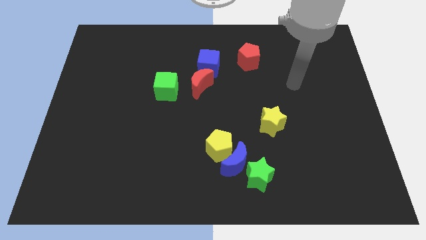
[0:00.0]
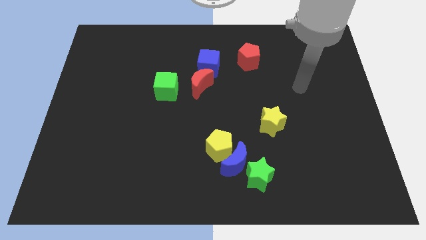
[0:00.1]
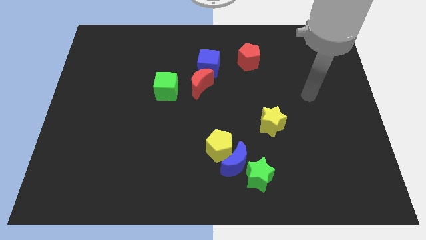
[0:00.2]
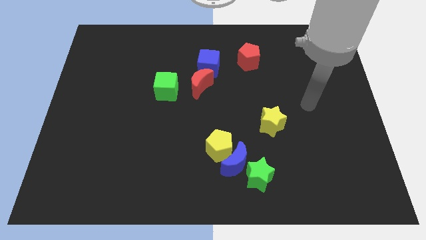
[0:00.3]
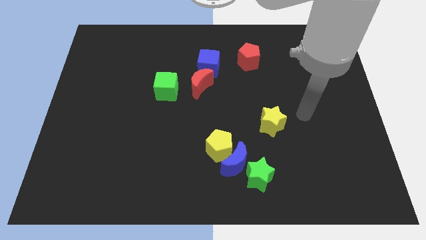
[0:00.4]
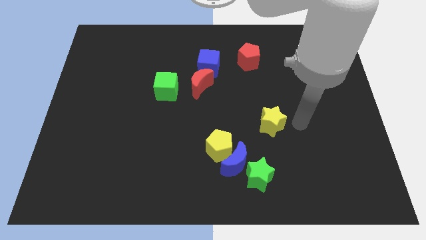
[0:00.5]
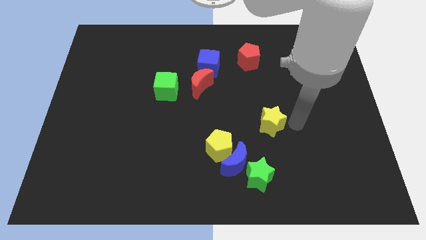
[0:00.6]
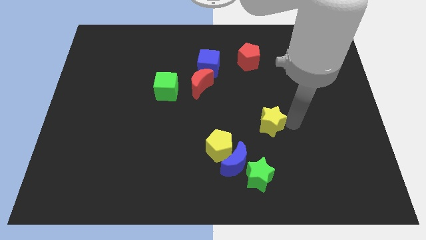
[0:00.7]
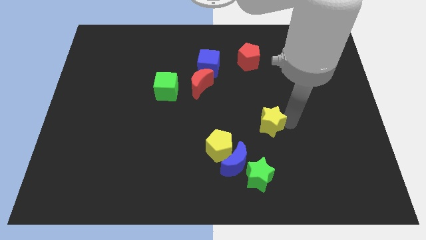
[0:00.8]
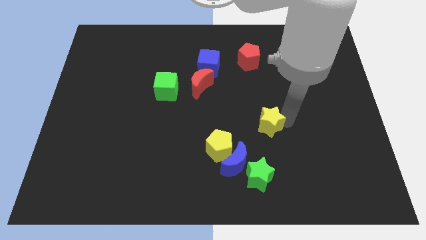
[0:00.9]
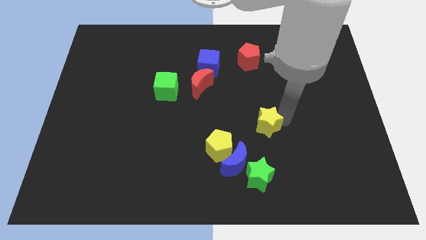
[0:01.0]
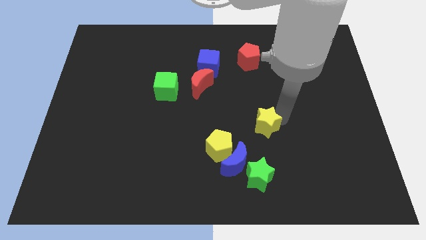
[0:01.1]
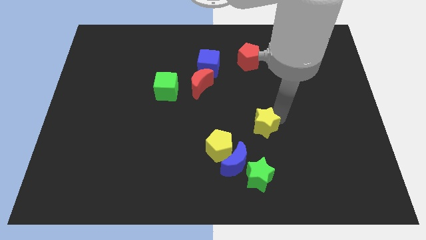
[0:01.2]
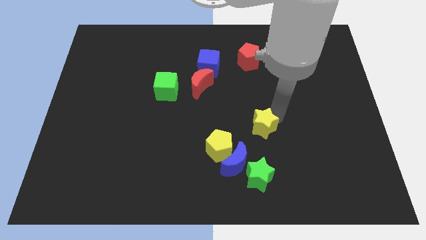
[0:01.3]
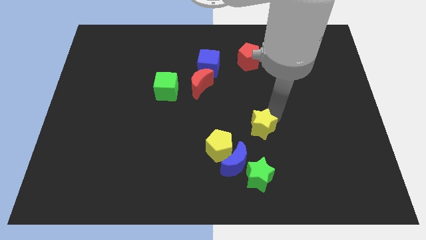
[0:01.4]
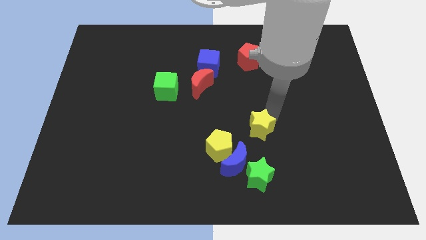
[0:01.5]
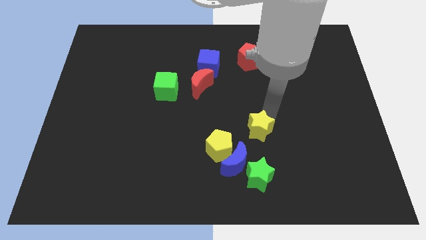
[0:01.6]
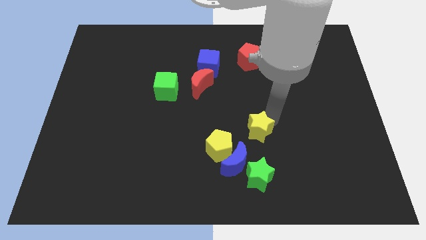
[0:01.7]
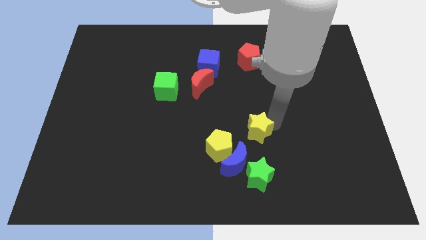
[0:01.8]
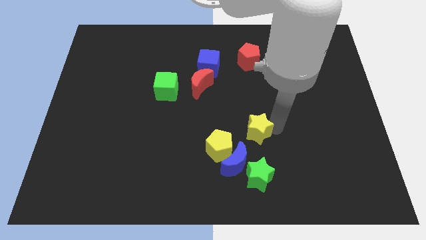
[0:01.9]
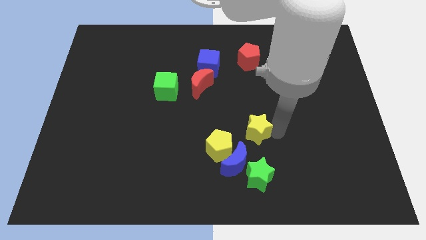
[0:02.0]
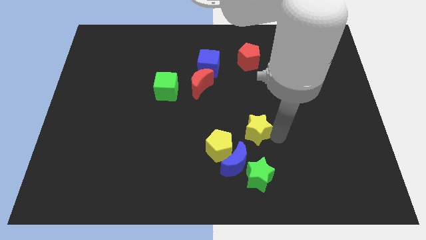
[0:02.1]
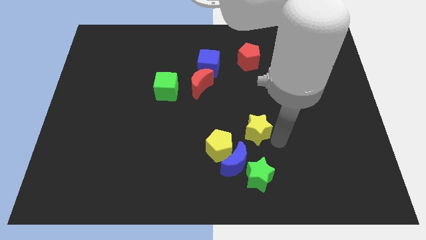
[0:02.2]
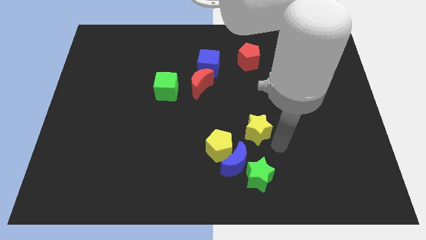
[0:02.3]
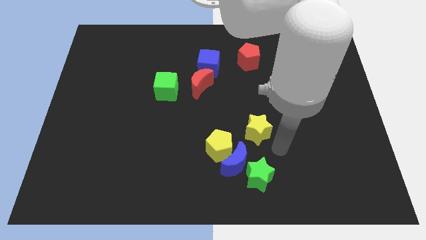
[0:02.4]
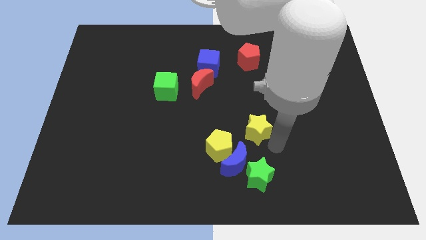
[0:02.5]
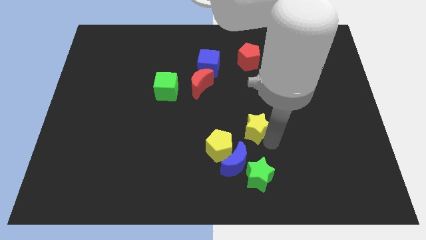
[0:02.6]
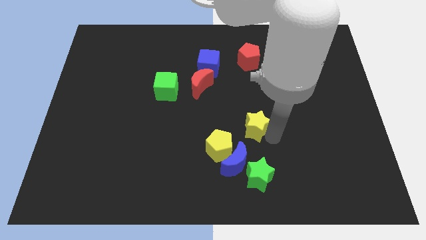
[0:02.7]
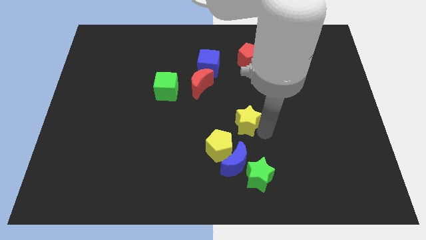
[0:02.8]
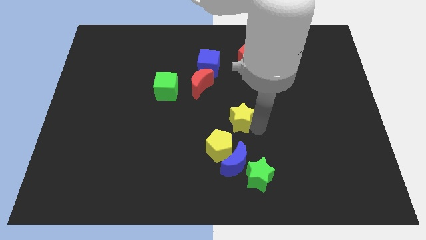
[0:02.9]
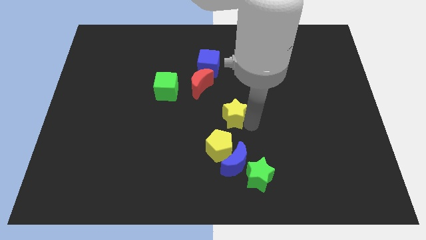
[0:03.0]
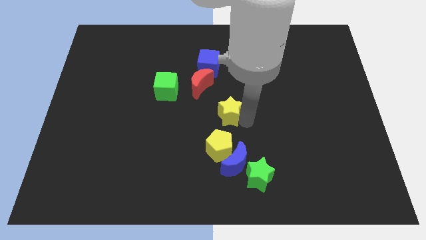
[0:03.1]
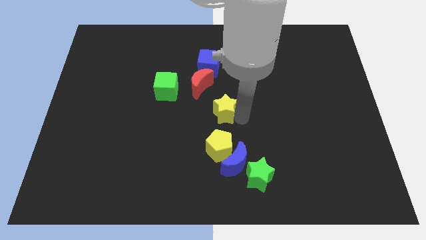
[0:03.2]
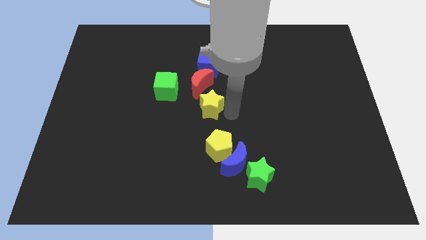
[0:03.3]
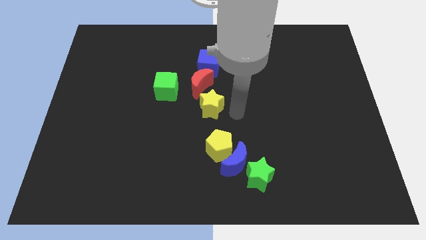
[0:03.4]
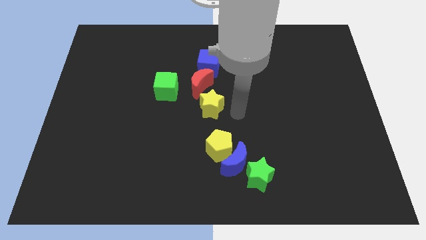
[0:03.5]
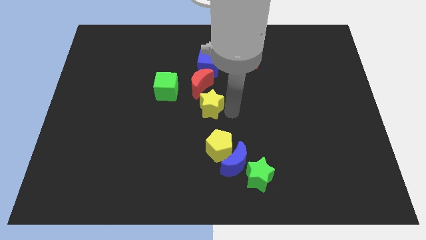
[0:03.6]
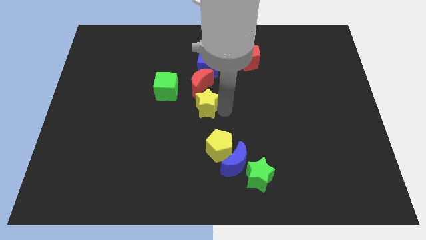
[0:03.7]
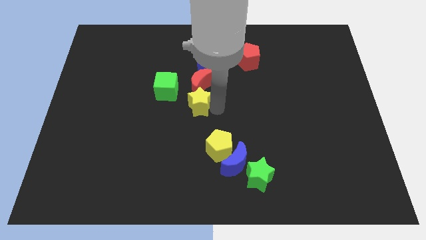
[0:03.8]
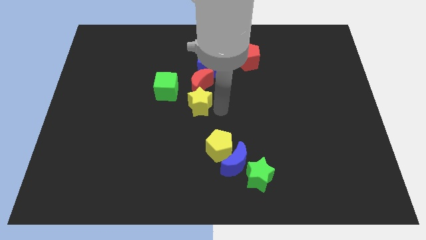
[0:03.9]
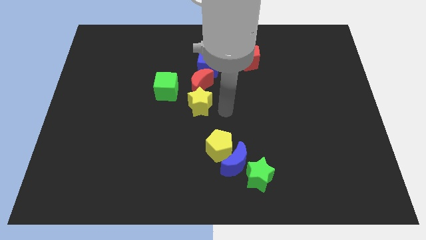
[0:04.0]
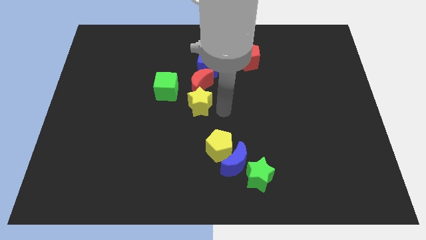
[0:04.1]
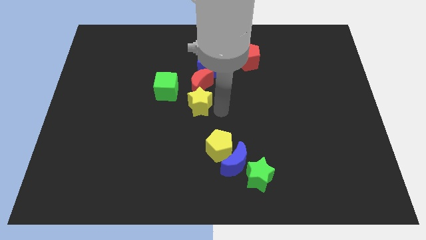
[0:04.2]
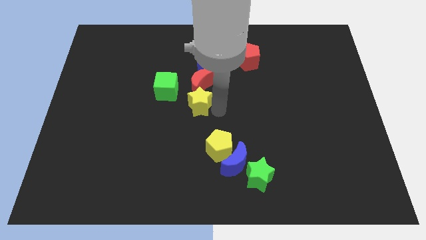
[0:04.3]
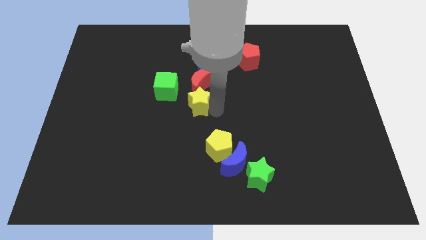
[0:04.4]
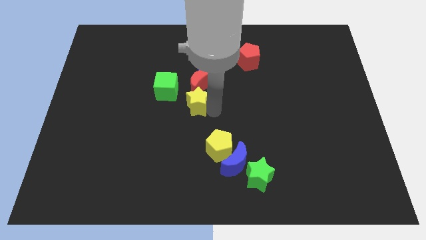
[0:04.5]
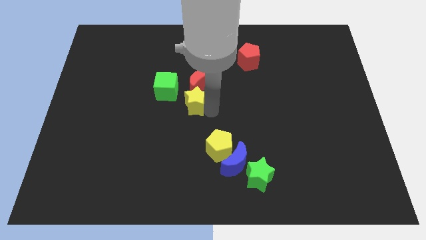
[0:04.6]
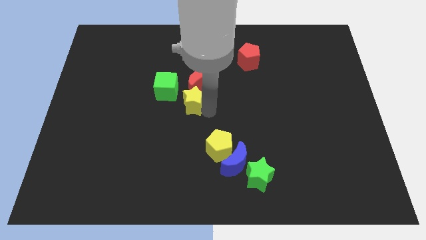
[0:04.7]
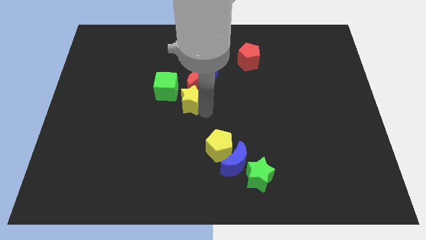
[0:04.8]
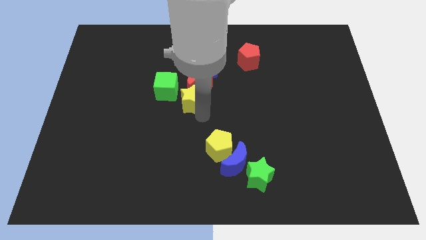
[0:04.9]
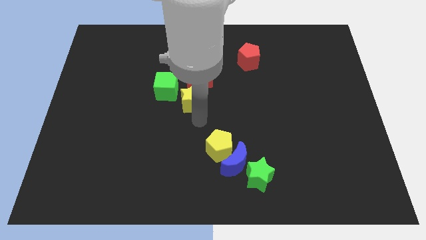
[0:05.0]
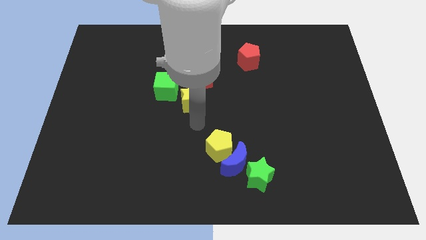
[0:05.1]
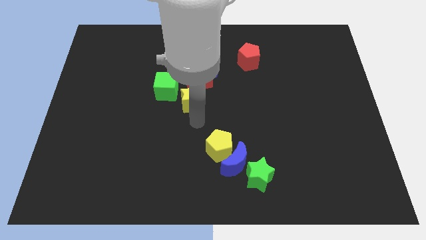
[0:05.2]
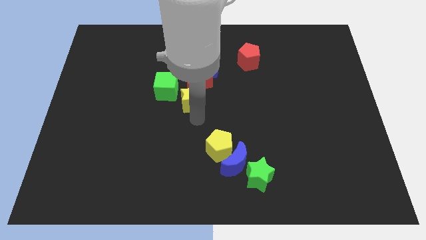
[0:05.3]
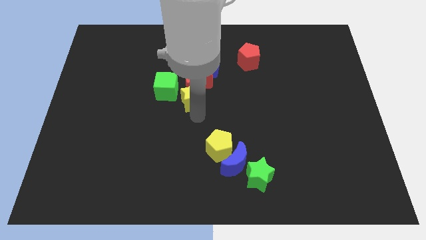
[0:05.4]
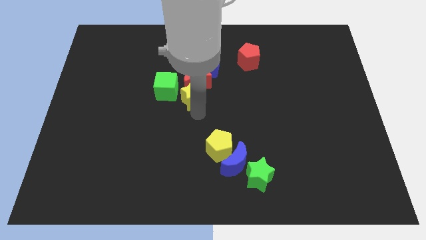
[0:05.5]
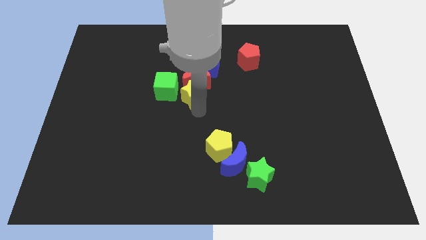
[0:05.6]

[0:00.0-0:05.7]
push the yellow star diagonally down and to the left of the blue cube

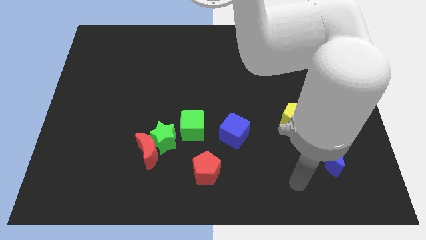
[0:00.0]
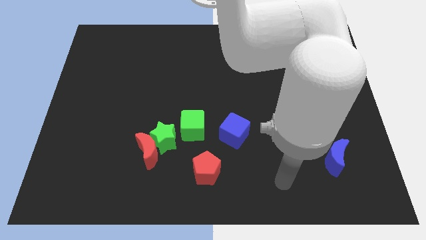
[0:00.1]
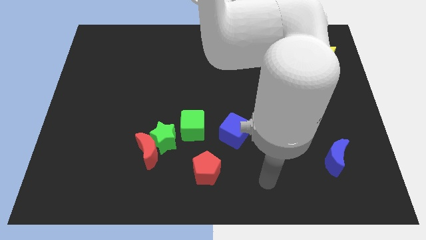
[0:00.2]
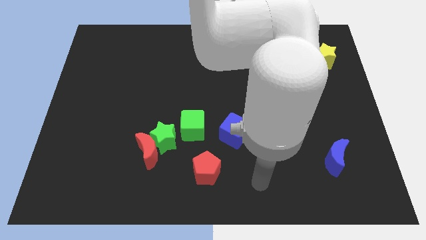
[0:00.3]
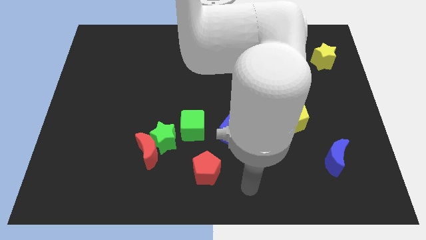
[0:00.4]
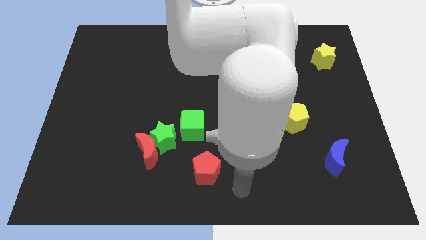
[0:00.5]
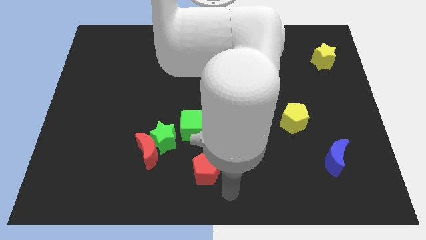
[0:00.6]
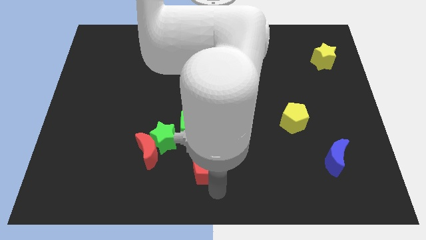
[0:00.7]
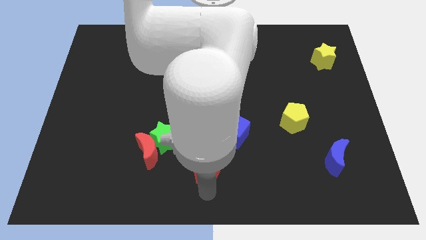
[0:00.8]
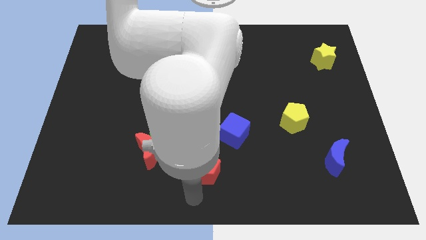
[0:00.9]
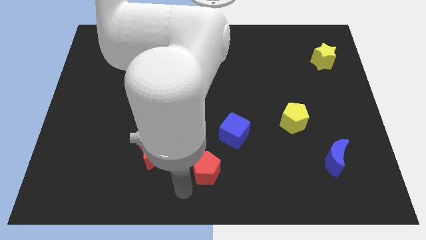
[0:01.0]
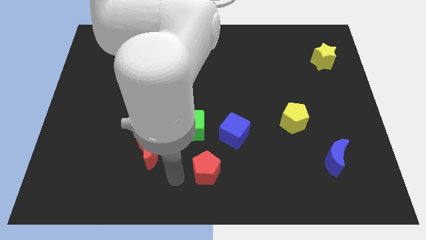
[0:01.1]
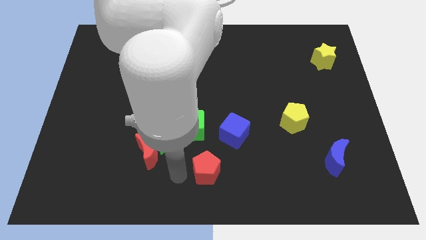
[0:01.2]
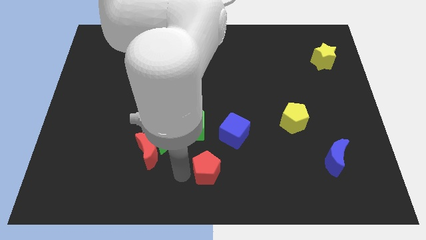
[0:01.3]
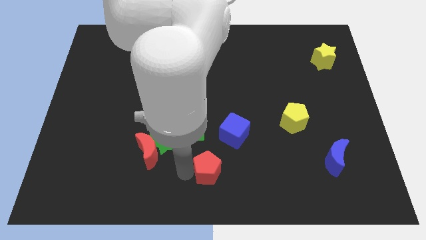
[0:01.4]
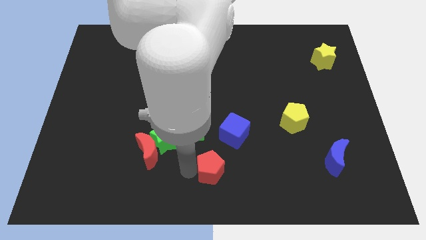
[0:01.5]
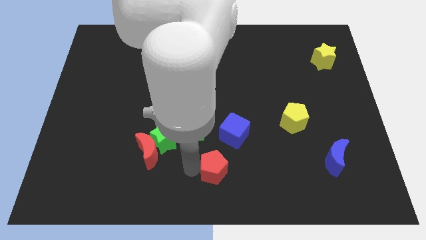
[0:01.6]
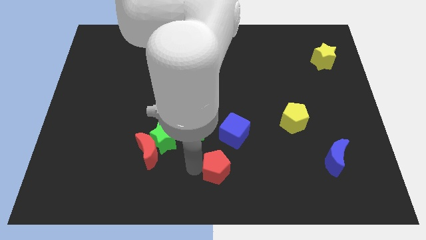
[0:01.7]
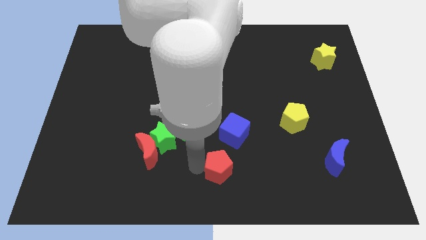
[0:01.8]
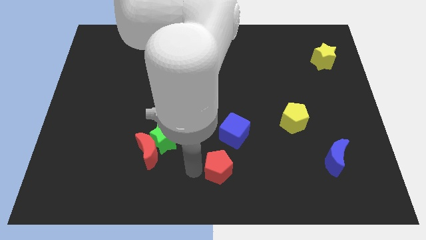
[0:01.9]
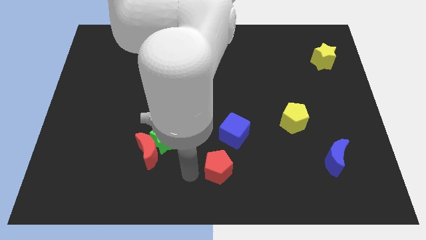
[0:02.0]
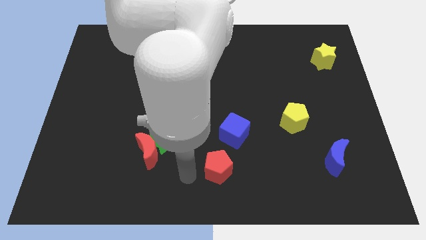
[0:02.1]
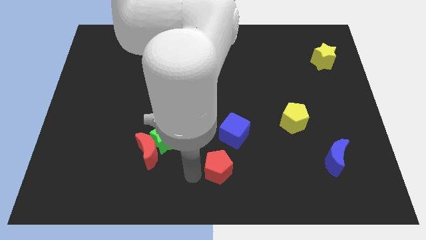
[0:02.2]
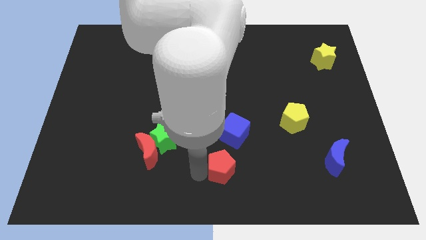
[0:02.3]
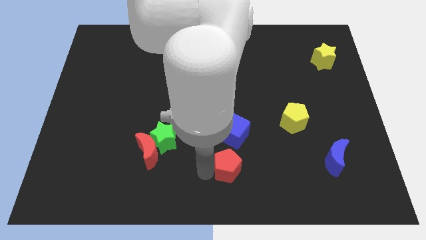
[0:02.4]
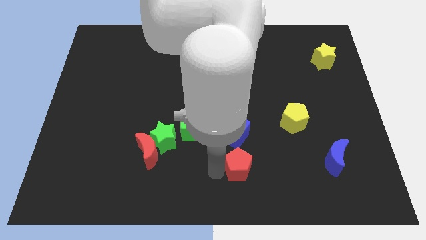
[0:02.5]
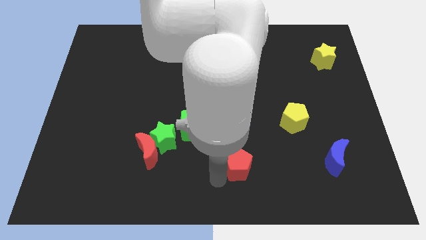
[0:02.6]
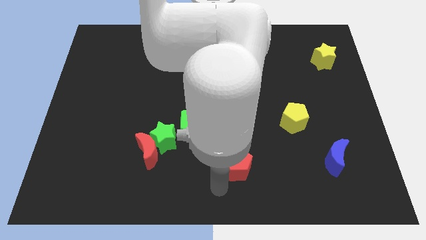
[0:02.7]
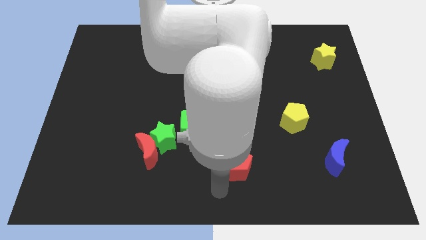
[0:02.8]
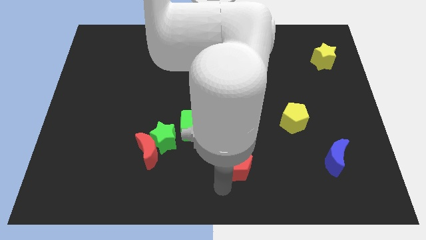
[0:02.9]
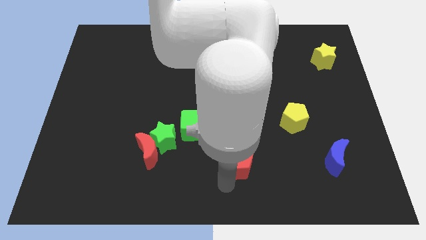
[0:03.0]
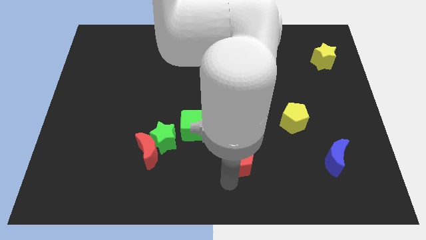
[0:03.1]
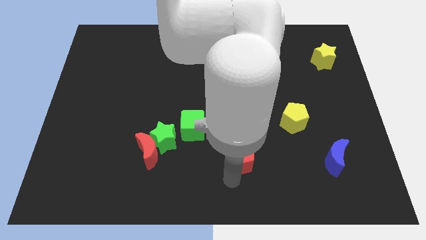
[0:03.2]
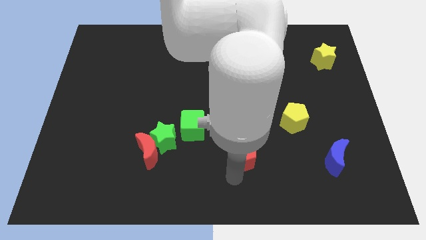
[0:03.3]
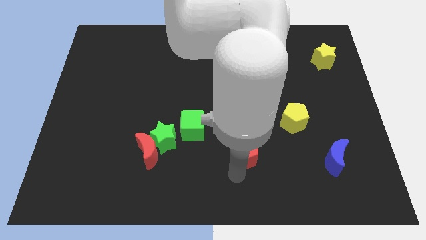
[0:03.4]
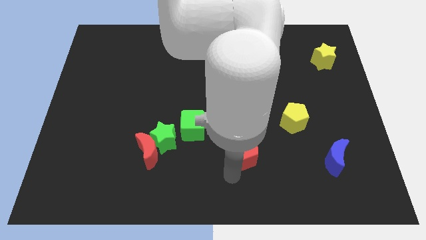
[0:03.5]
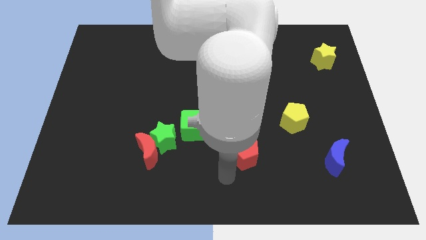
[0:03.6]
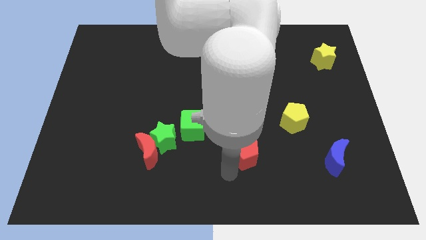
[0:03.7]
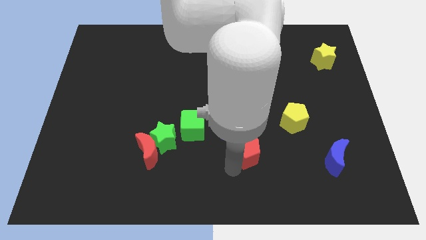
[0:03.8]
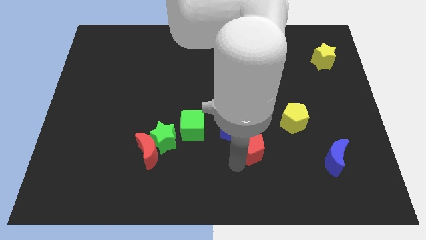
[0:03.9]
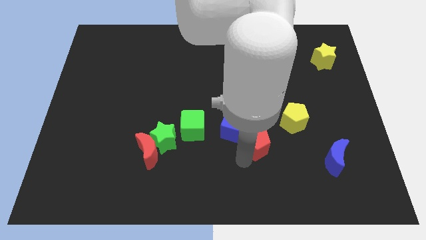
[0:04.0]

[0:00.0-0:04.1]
slide the red pentagon right of the green cube
